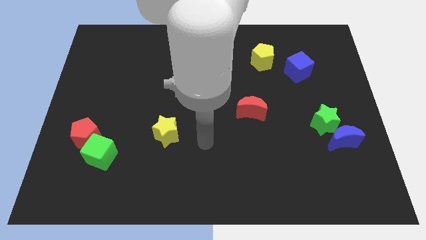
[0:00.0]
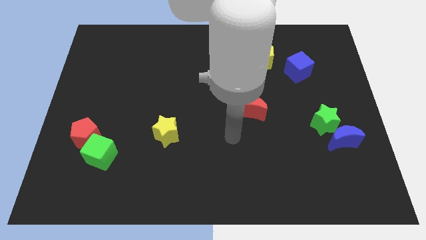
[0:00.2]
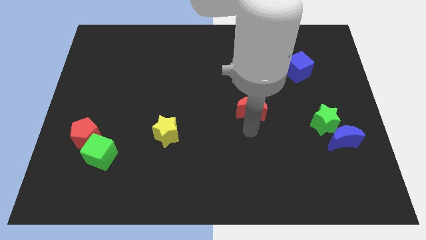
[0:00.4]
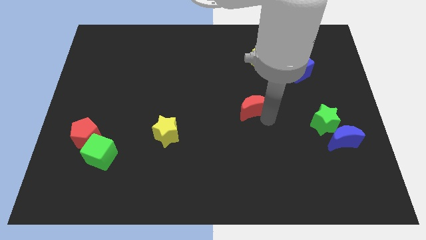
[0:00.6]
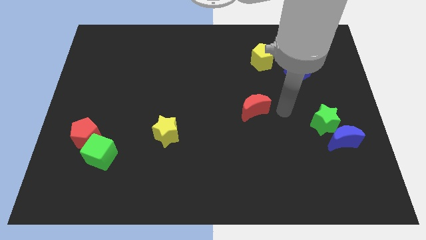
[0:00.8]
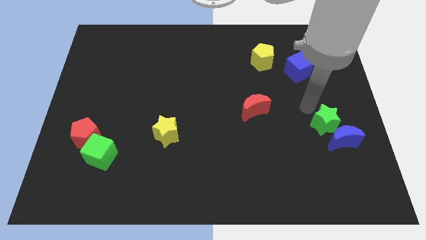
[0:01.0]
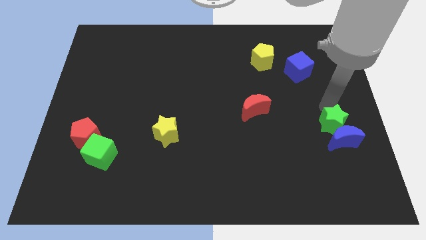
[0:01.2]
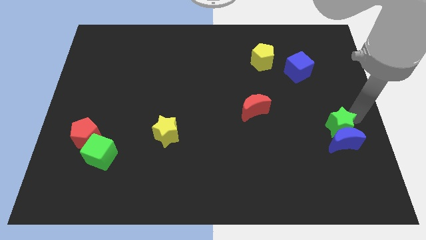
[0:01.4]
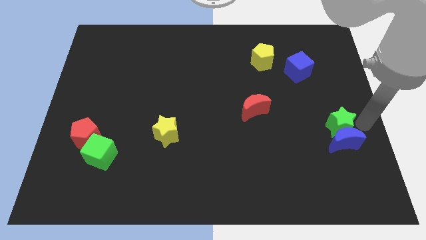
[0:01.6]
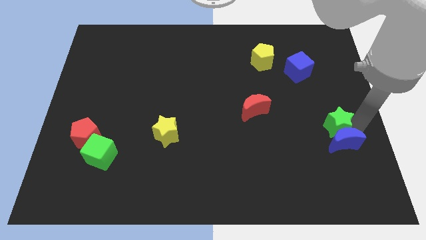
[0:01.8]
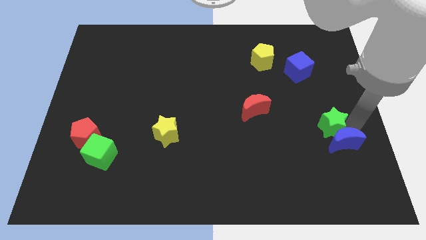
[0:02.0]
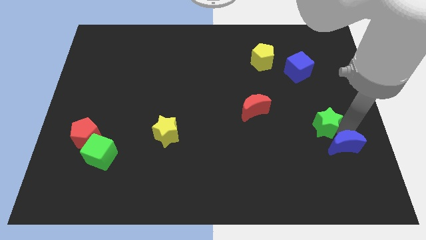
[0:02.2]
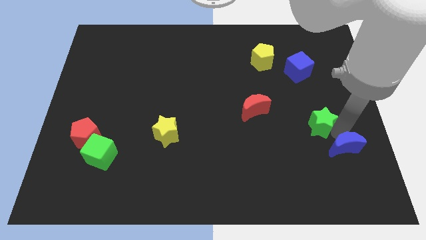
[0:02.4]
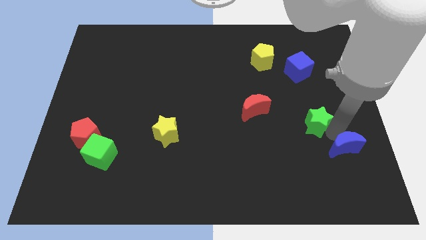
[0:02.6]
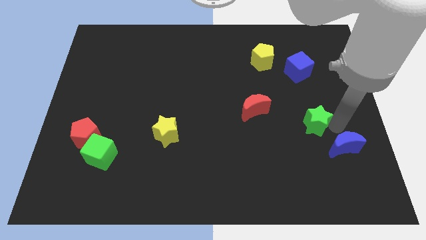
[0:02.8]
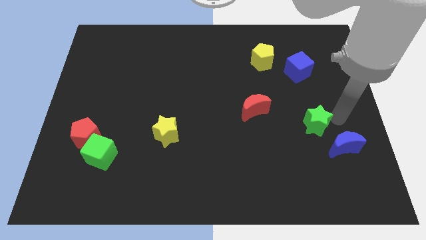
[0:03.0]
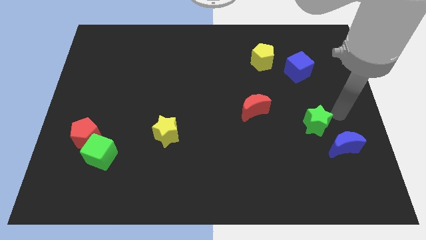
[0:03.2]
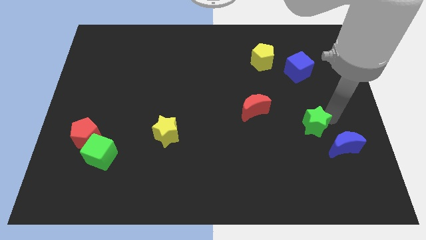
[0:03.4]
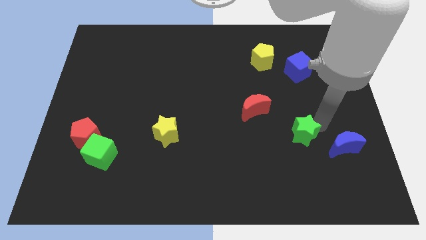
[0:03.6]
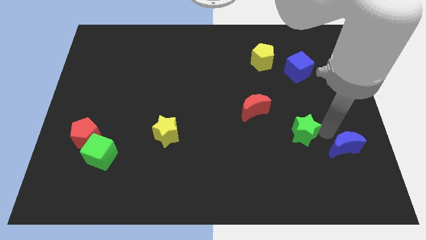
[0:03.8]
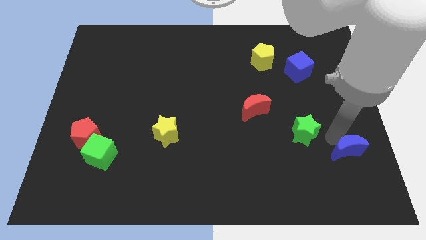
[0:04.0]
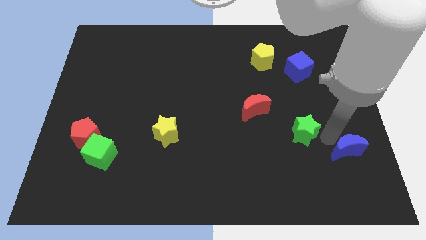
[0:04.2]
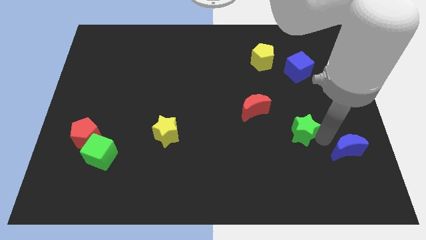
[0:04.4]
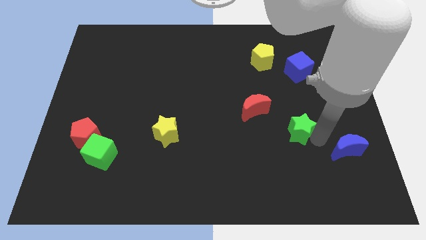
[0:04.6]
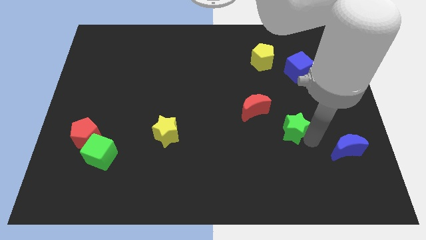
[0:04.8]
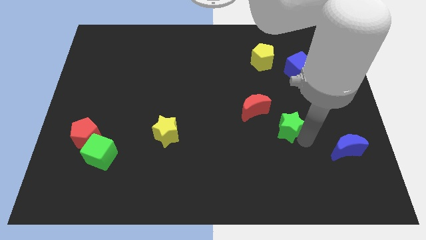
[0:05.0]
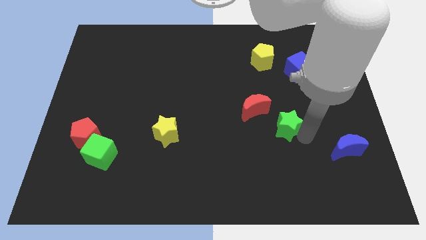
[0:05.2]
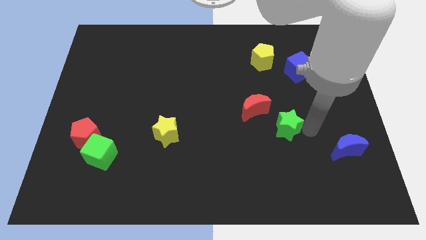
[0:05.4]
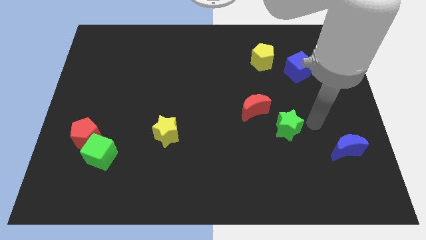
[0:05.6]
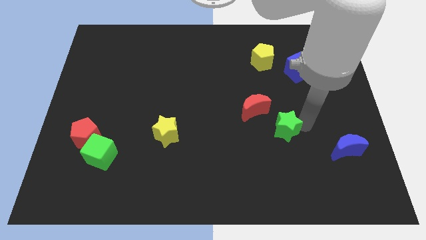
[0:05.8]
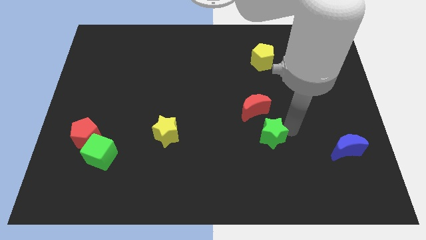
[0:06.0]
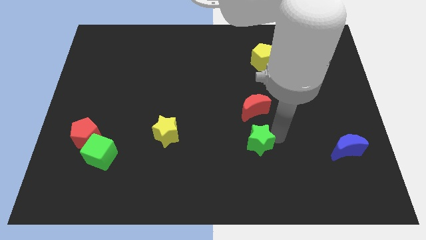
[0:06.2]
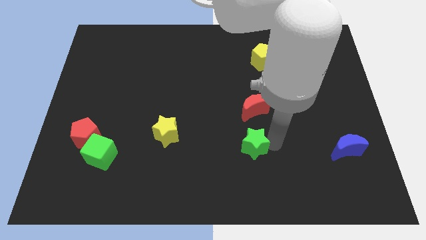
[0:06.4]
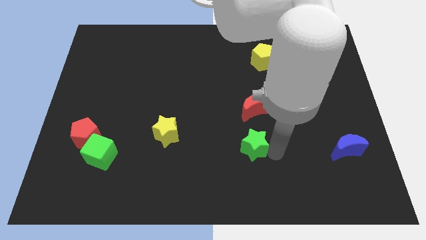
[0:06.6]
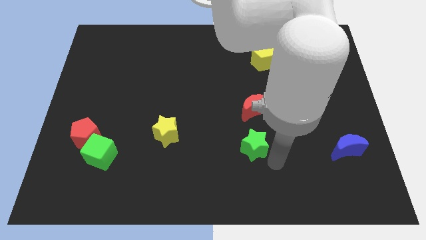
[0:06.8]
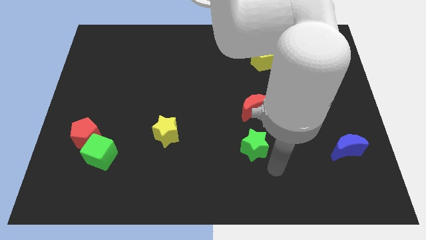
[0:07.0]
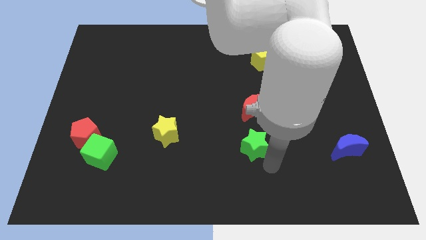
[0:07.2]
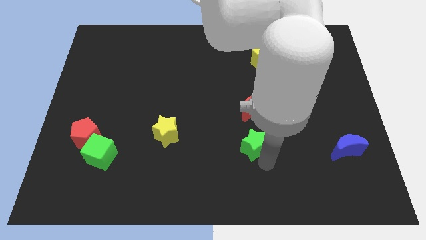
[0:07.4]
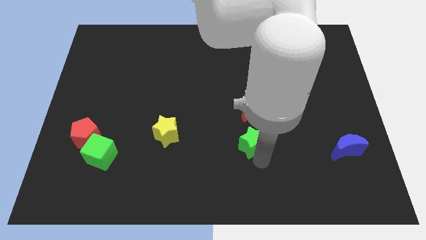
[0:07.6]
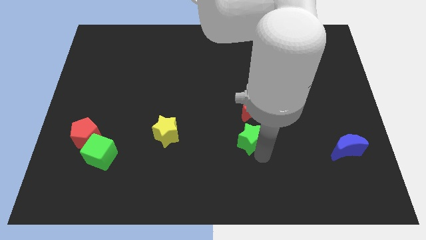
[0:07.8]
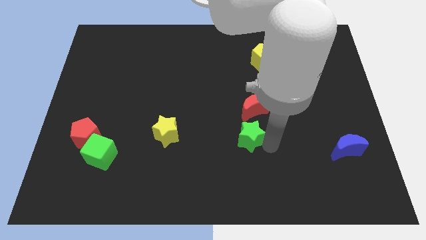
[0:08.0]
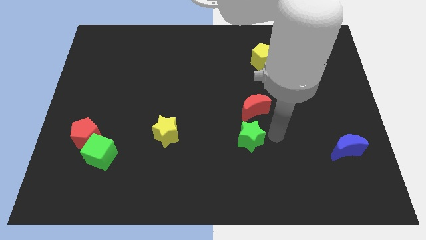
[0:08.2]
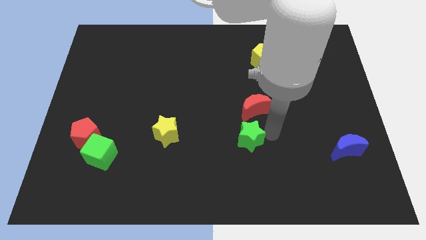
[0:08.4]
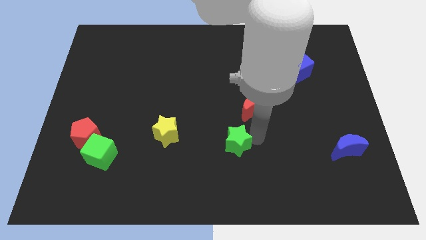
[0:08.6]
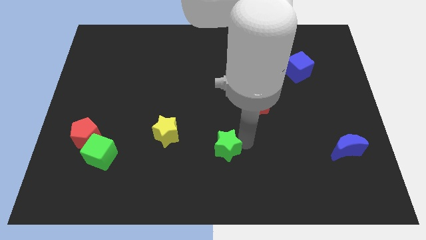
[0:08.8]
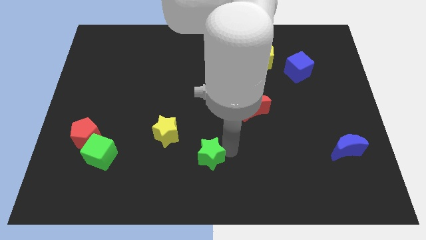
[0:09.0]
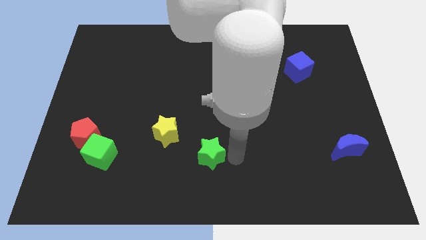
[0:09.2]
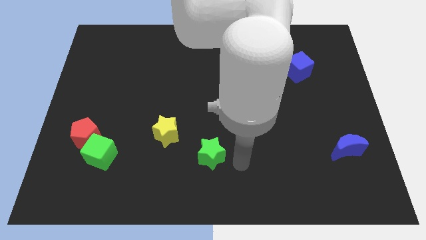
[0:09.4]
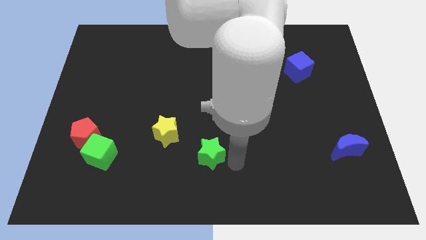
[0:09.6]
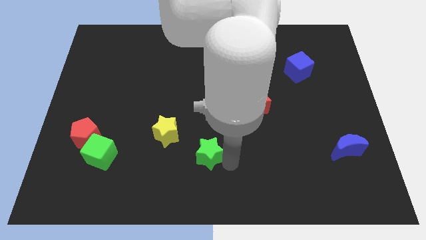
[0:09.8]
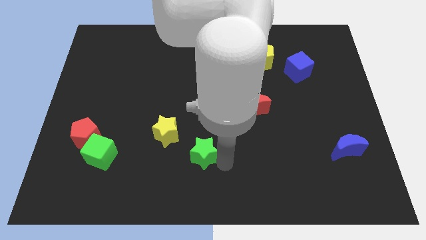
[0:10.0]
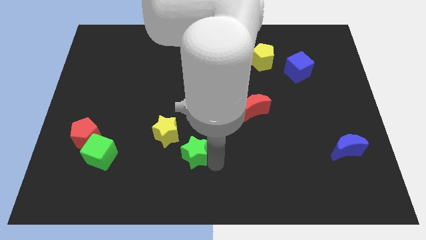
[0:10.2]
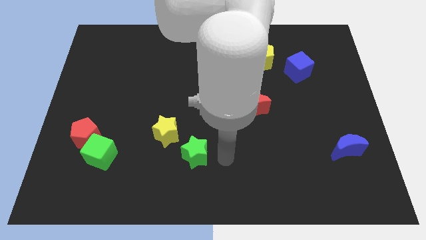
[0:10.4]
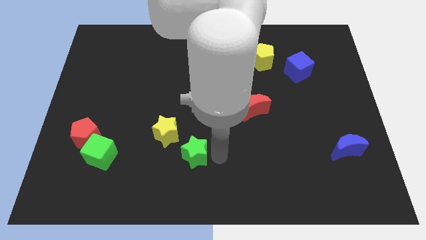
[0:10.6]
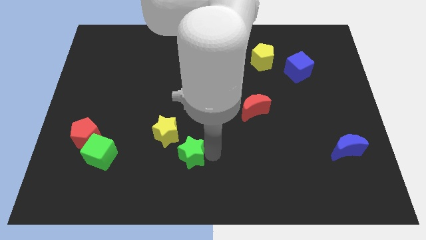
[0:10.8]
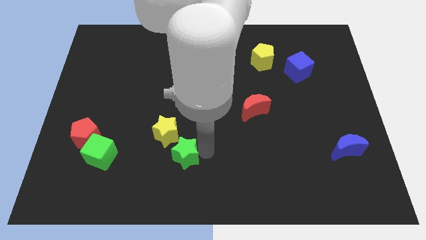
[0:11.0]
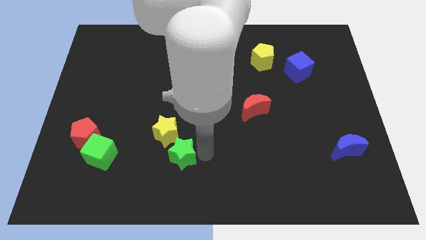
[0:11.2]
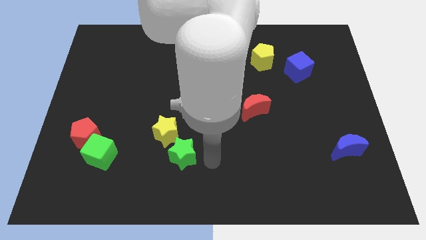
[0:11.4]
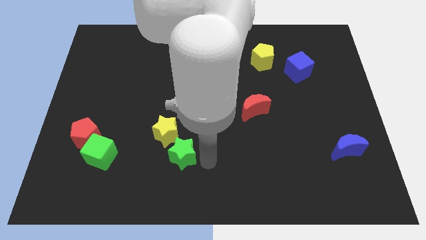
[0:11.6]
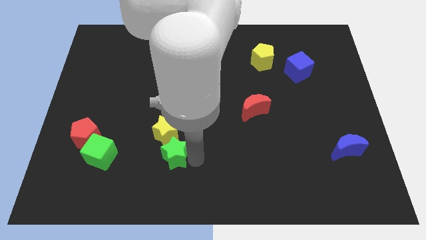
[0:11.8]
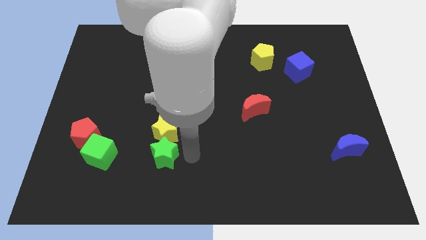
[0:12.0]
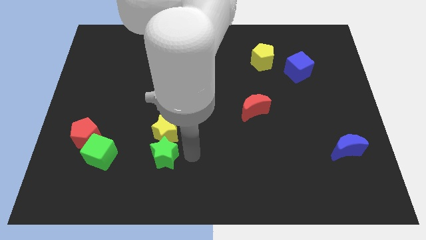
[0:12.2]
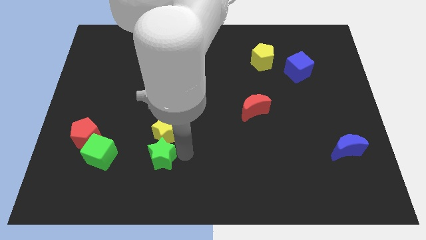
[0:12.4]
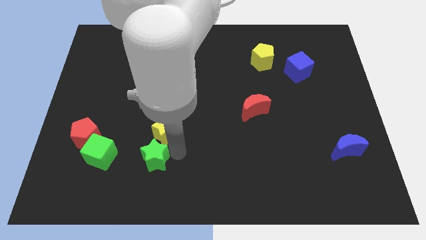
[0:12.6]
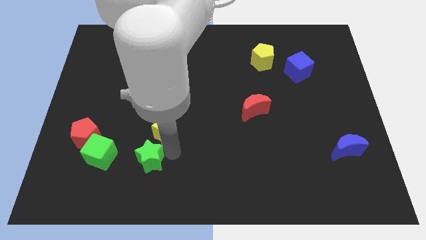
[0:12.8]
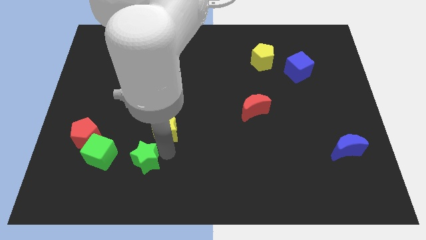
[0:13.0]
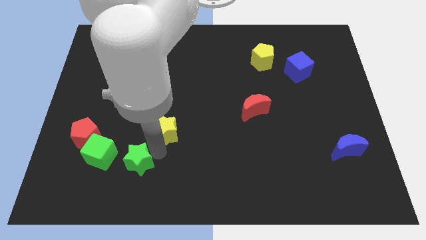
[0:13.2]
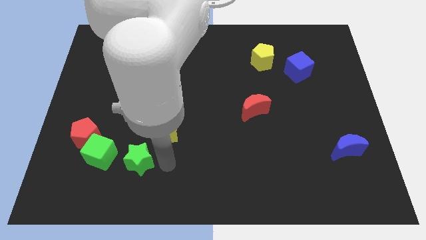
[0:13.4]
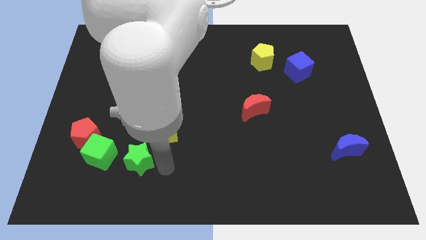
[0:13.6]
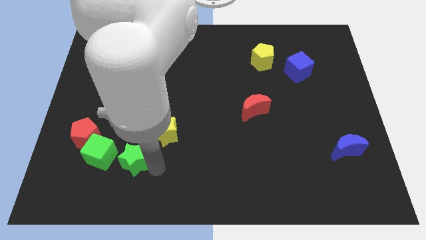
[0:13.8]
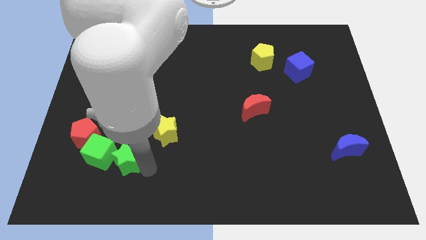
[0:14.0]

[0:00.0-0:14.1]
put the green star next to the green cube
